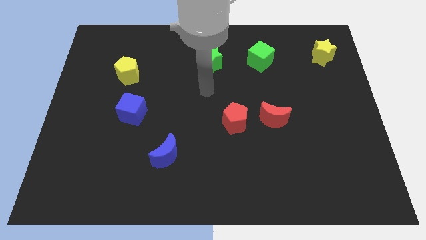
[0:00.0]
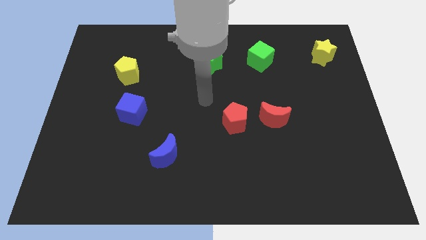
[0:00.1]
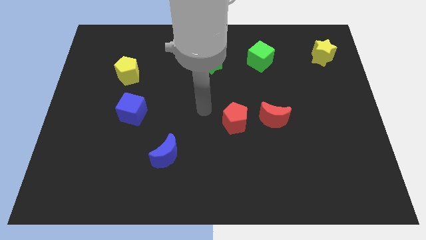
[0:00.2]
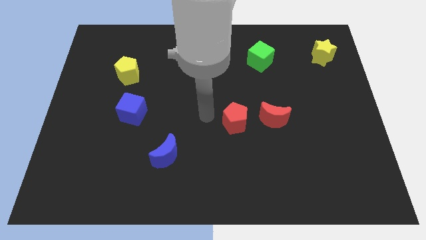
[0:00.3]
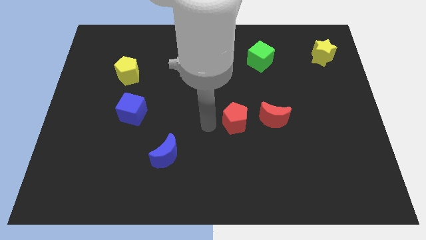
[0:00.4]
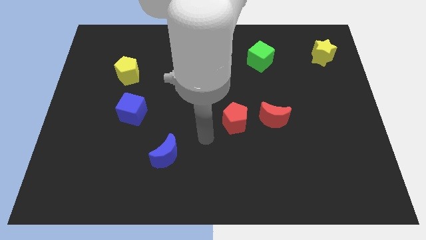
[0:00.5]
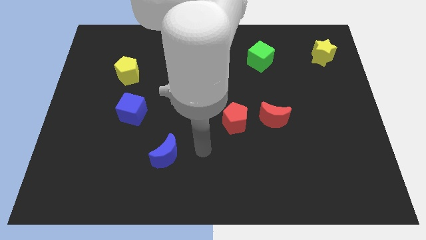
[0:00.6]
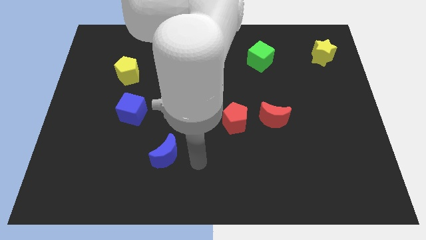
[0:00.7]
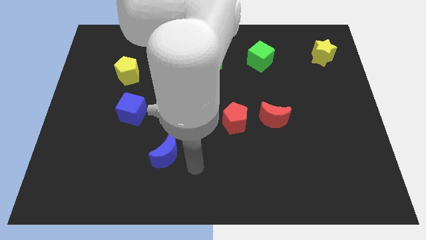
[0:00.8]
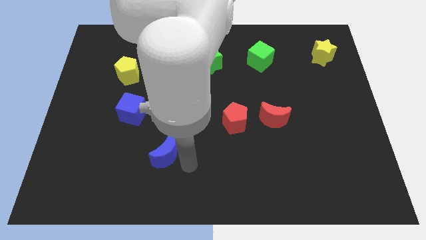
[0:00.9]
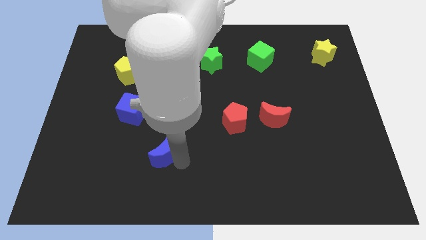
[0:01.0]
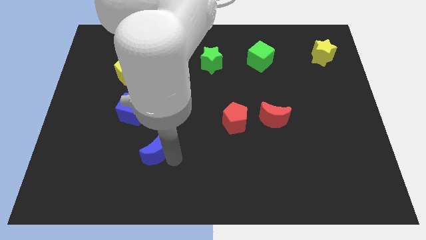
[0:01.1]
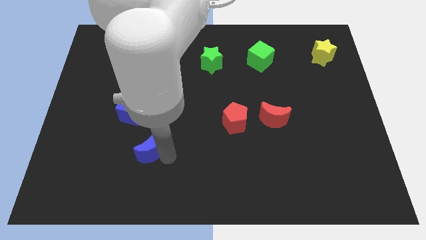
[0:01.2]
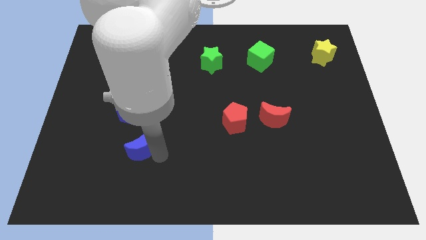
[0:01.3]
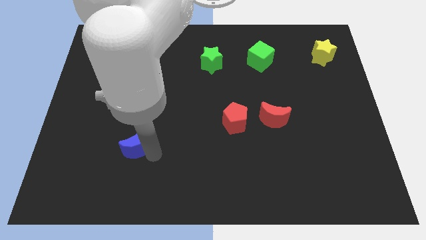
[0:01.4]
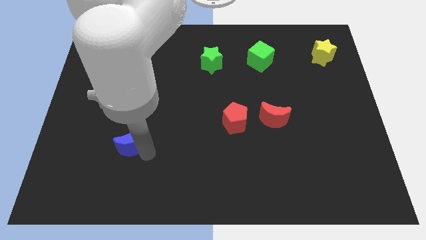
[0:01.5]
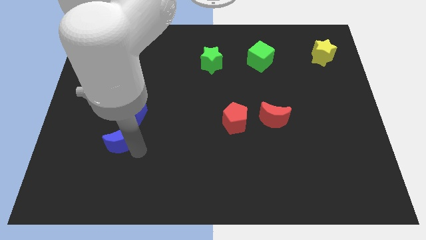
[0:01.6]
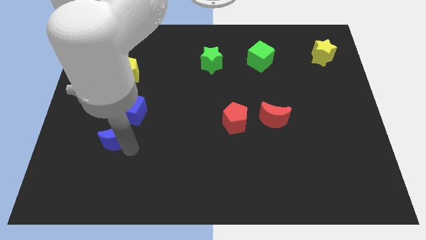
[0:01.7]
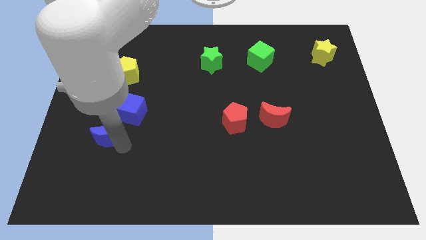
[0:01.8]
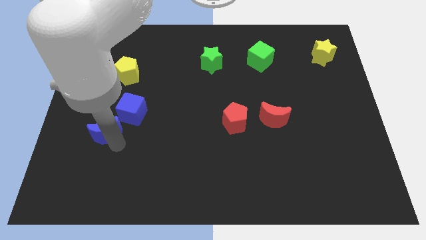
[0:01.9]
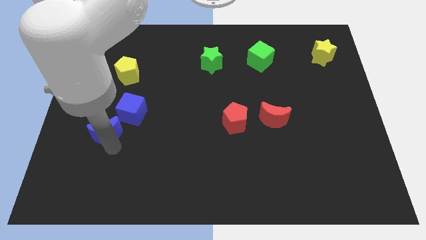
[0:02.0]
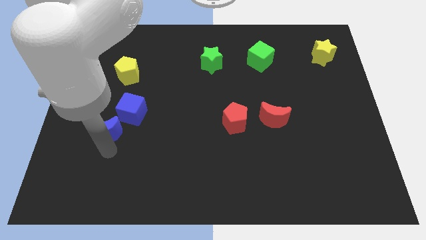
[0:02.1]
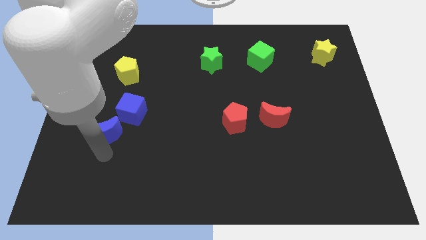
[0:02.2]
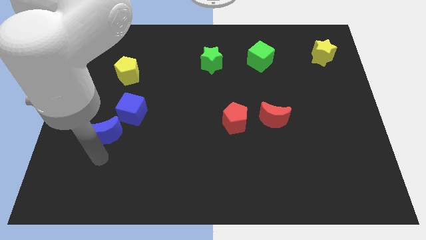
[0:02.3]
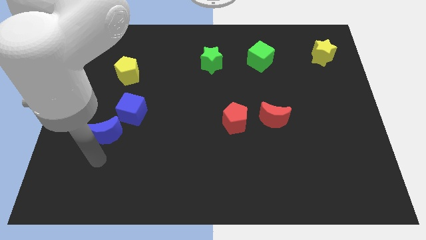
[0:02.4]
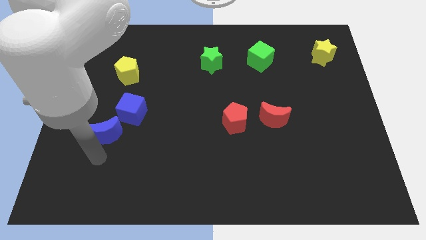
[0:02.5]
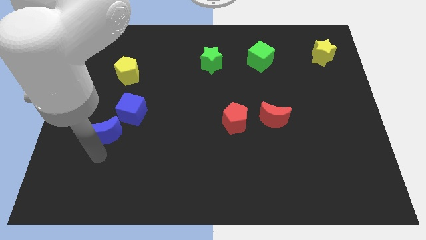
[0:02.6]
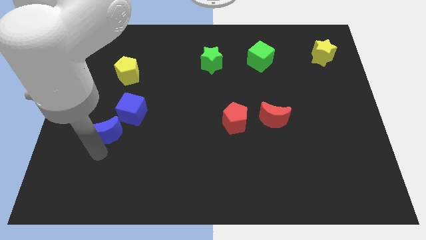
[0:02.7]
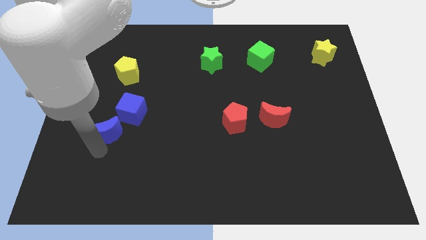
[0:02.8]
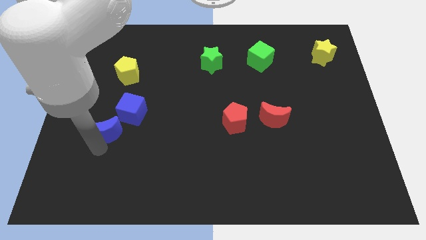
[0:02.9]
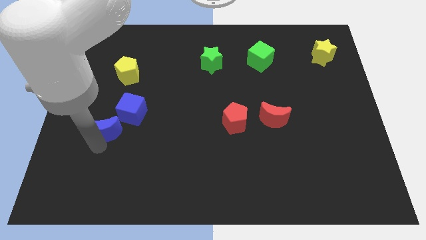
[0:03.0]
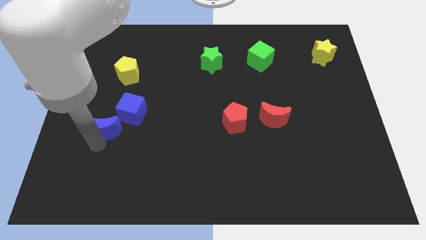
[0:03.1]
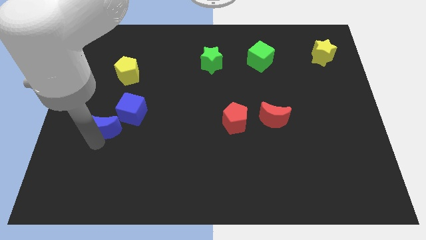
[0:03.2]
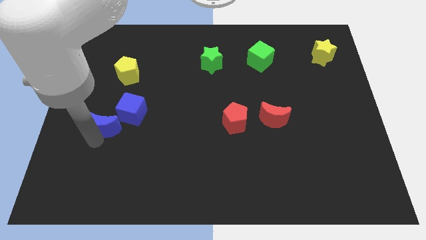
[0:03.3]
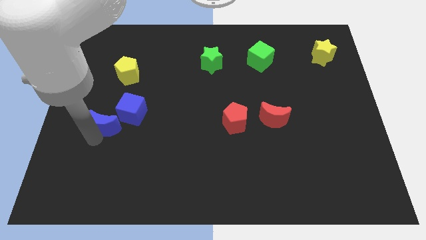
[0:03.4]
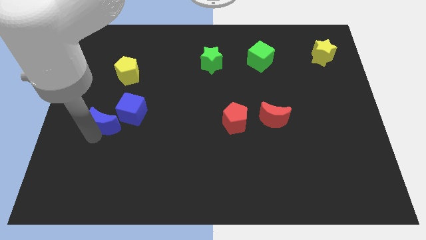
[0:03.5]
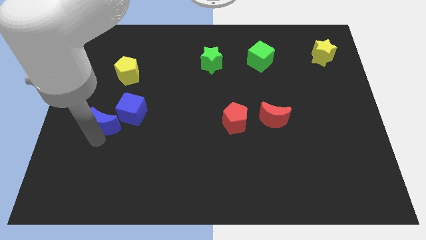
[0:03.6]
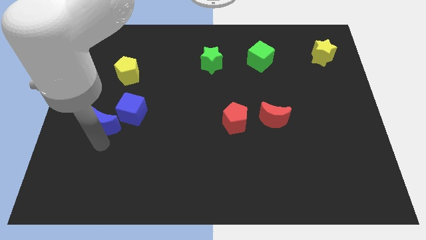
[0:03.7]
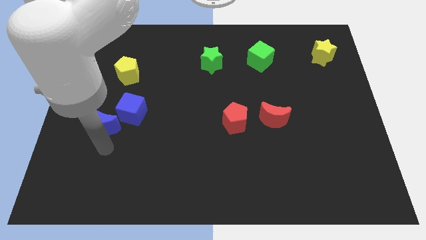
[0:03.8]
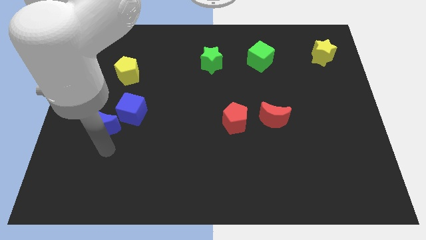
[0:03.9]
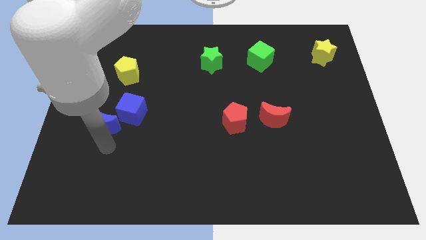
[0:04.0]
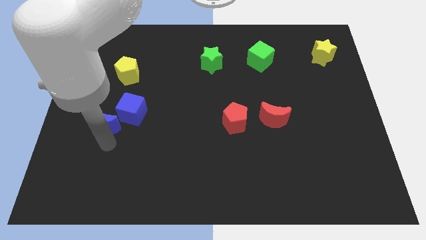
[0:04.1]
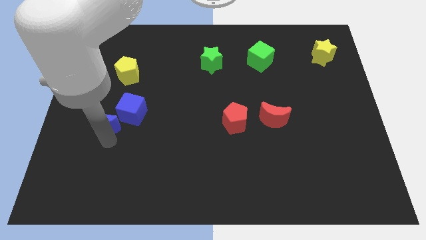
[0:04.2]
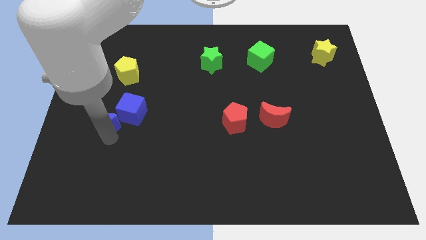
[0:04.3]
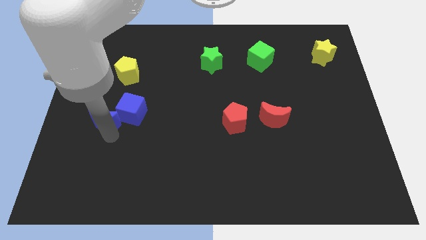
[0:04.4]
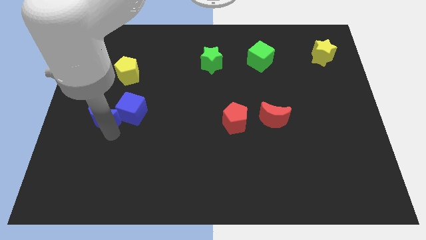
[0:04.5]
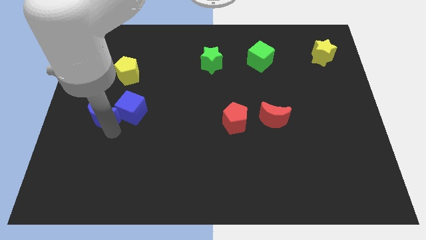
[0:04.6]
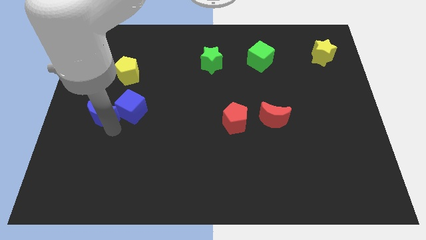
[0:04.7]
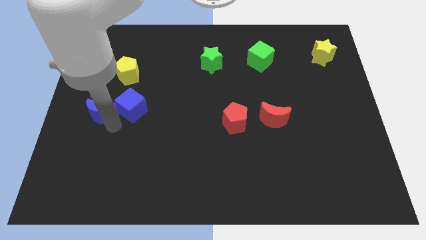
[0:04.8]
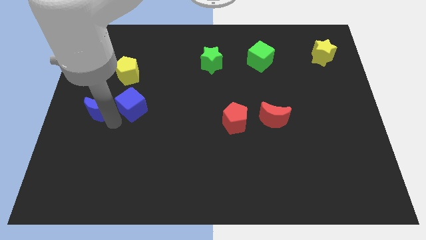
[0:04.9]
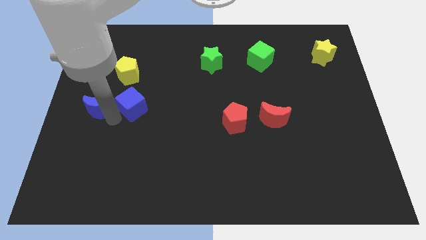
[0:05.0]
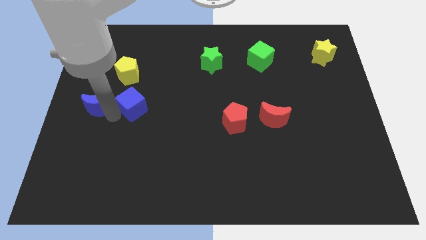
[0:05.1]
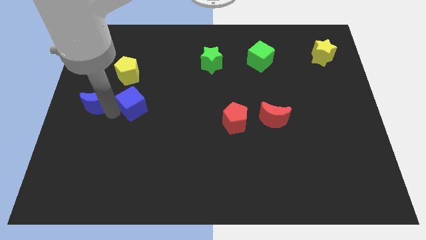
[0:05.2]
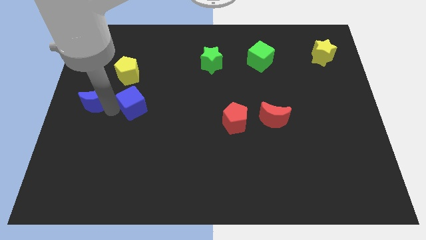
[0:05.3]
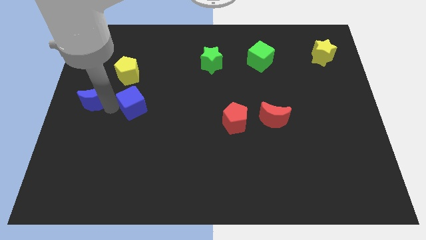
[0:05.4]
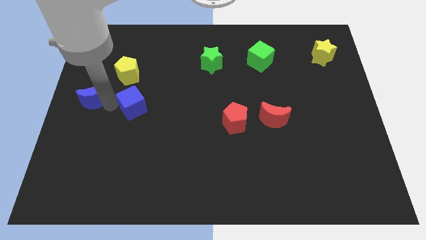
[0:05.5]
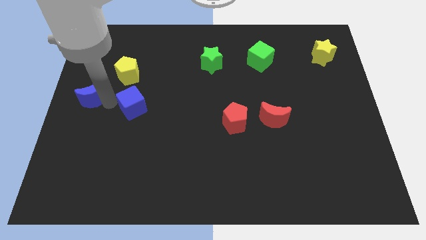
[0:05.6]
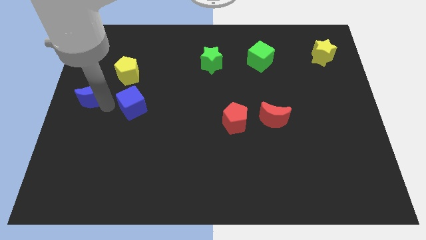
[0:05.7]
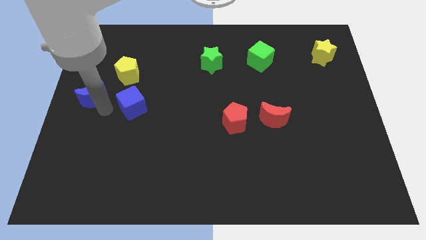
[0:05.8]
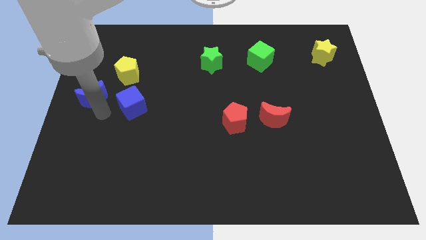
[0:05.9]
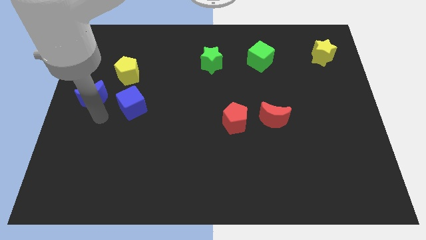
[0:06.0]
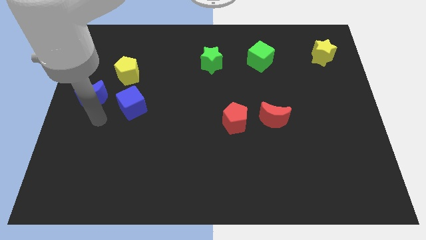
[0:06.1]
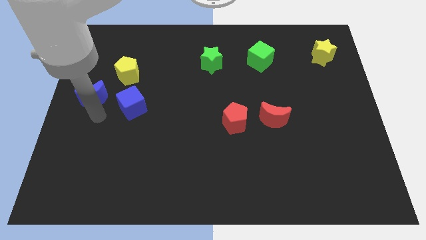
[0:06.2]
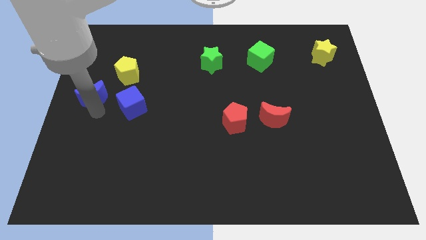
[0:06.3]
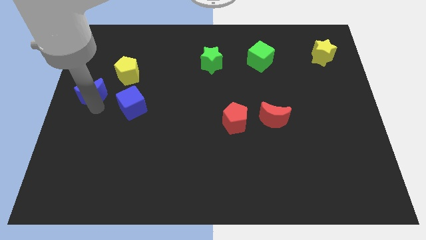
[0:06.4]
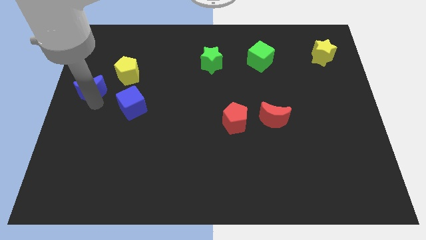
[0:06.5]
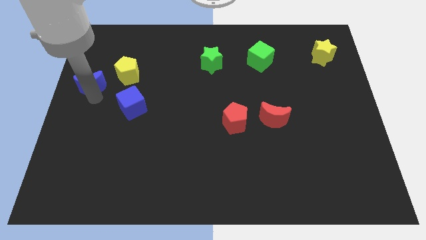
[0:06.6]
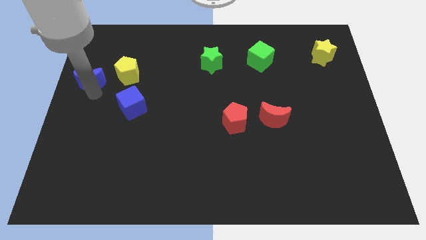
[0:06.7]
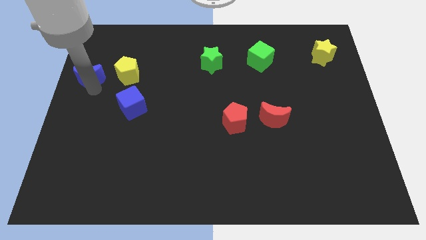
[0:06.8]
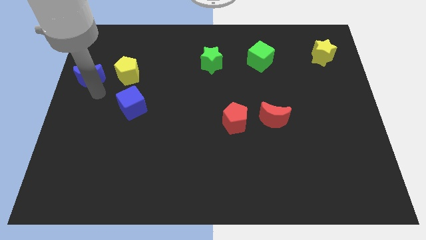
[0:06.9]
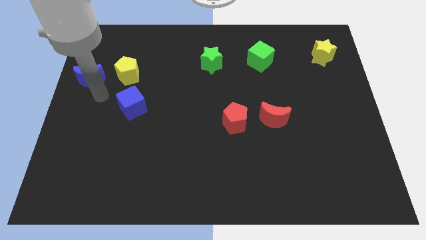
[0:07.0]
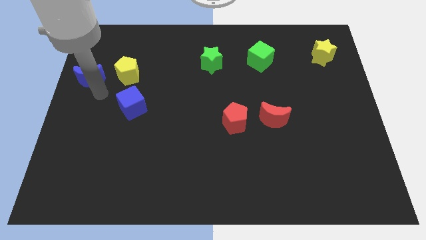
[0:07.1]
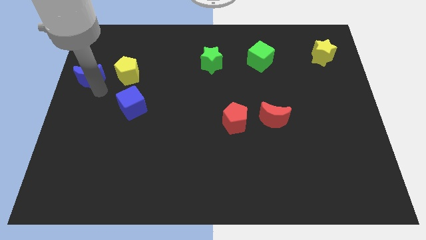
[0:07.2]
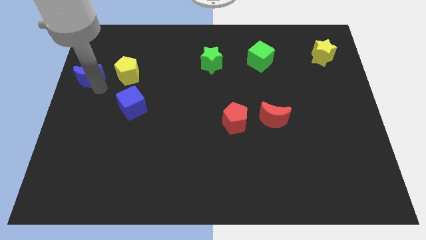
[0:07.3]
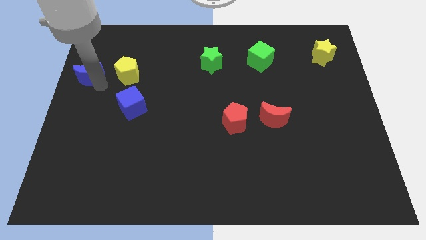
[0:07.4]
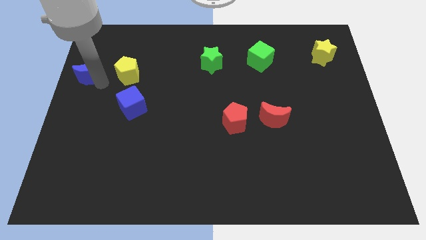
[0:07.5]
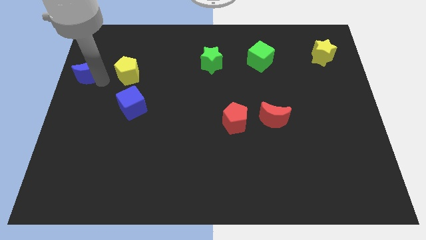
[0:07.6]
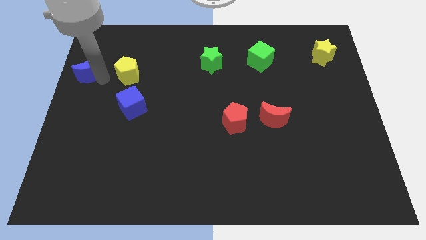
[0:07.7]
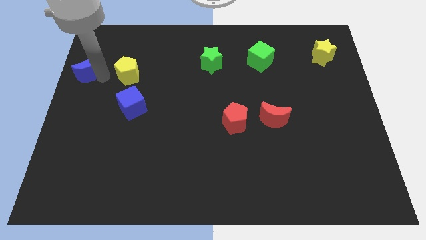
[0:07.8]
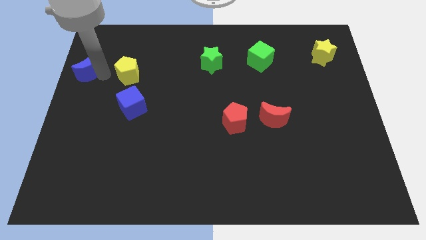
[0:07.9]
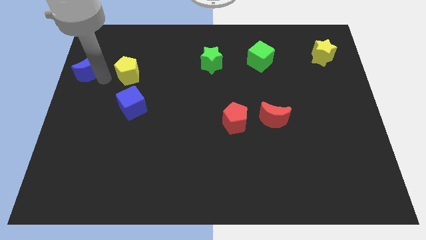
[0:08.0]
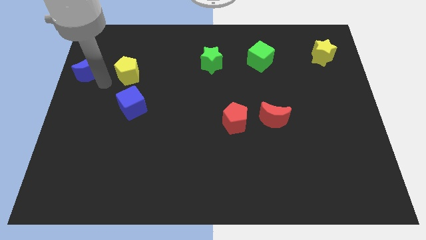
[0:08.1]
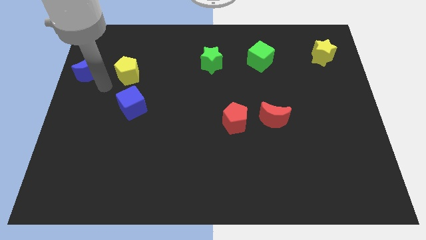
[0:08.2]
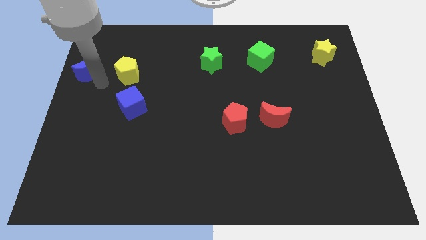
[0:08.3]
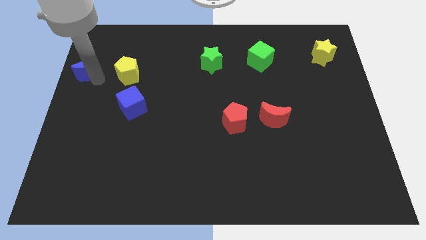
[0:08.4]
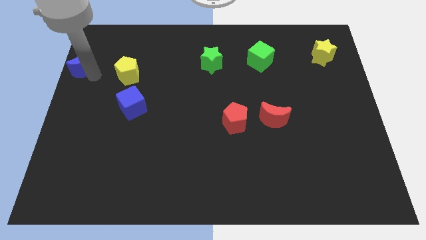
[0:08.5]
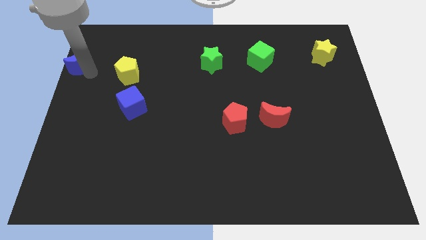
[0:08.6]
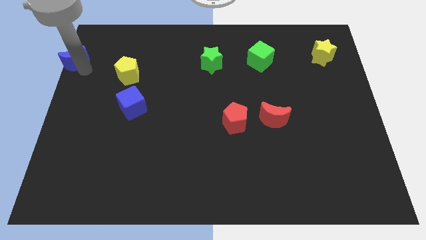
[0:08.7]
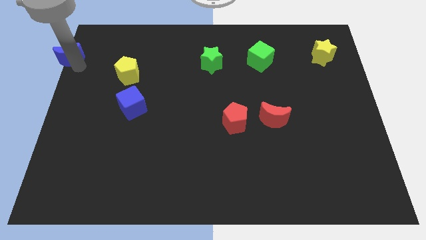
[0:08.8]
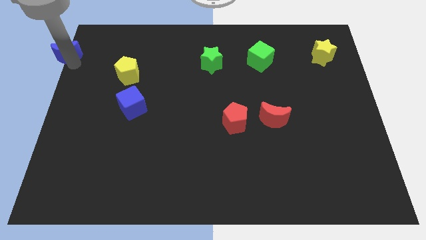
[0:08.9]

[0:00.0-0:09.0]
push the blue moon to the top left corner
